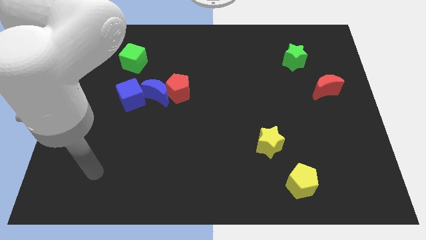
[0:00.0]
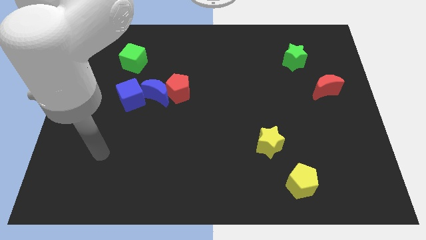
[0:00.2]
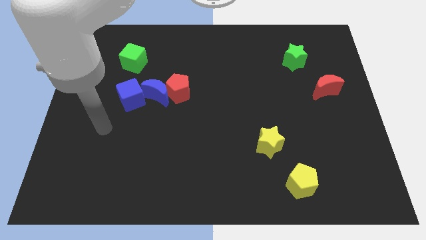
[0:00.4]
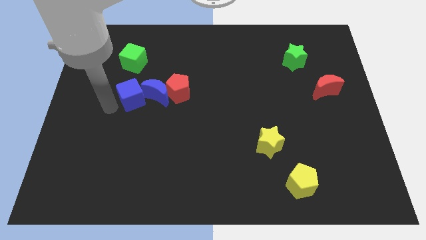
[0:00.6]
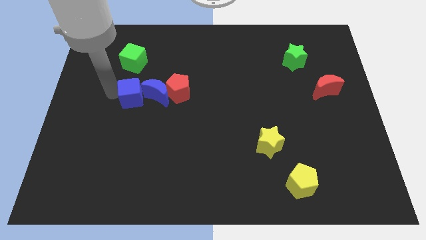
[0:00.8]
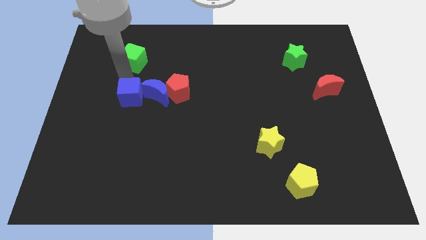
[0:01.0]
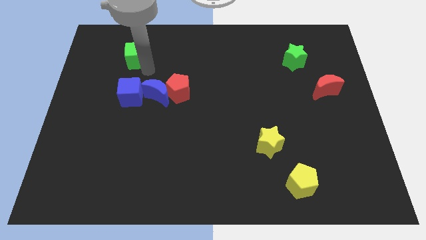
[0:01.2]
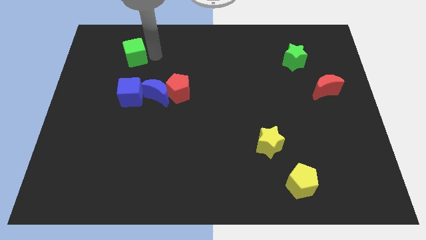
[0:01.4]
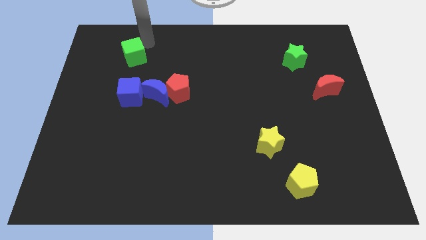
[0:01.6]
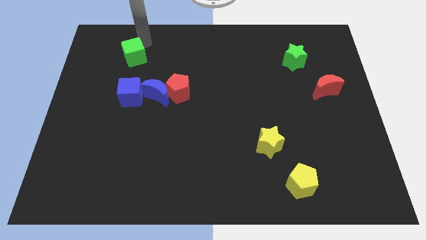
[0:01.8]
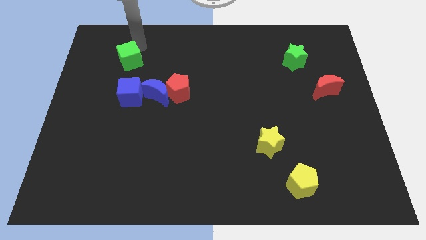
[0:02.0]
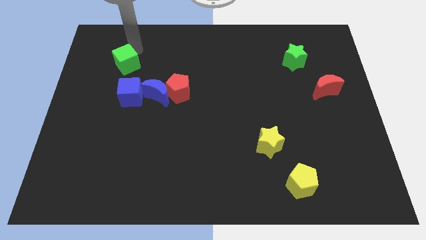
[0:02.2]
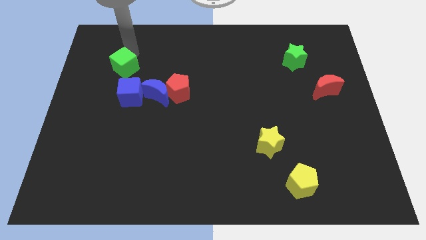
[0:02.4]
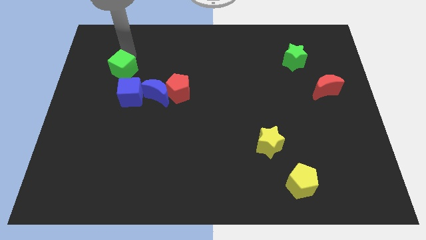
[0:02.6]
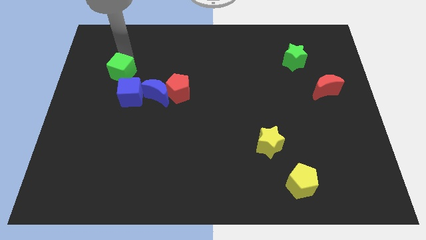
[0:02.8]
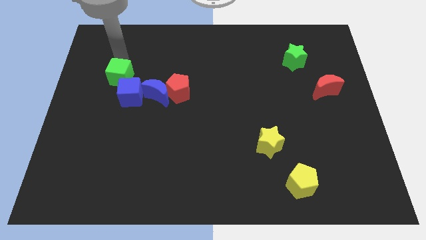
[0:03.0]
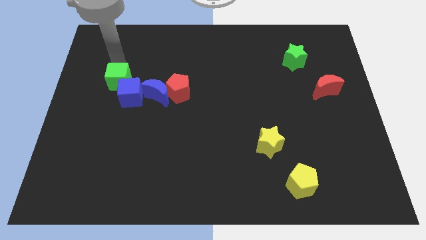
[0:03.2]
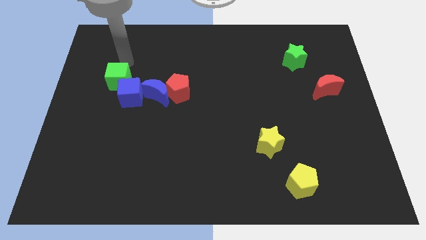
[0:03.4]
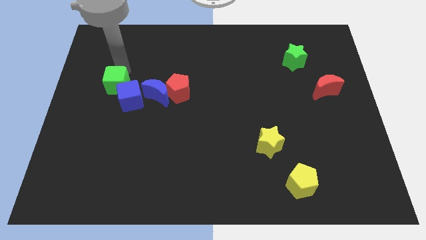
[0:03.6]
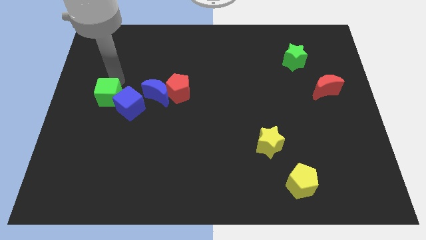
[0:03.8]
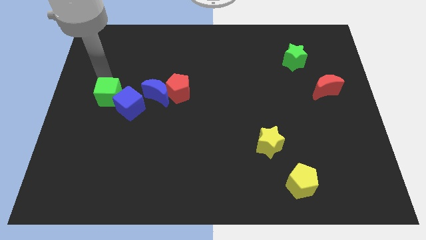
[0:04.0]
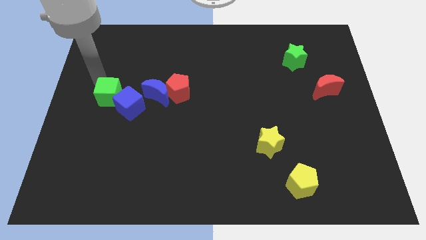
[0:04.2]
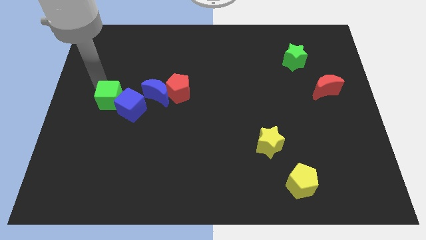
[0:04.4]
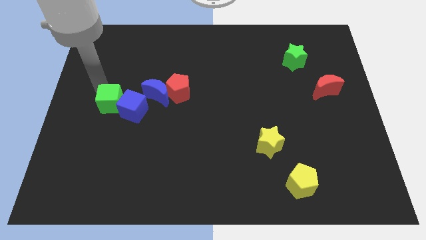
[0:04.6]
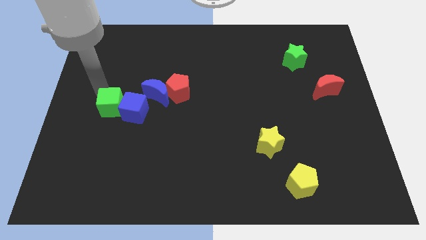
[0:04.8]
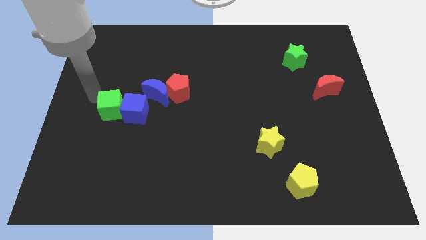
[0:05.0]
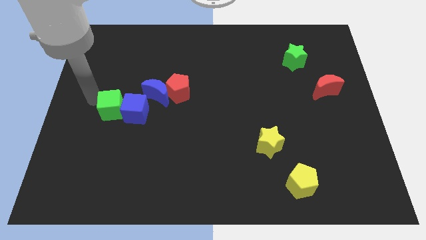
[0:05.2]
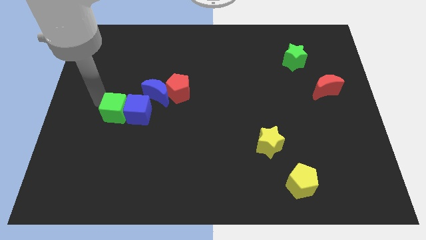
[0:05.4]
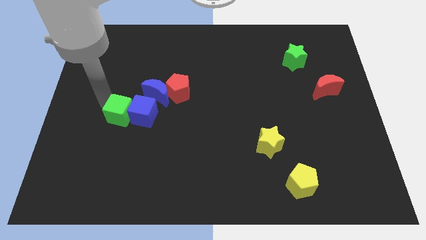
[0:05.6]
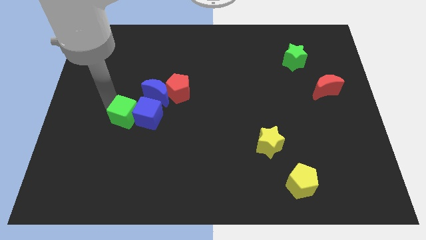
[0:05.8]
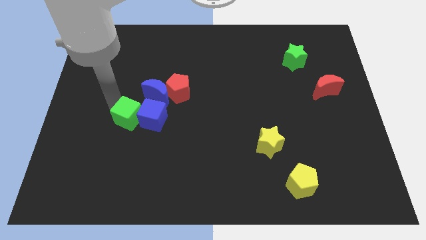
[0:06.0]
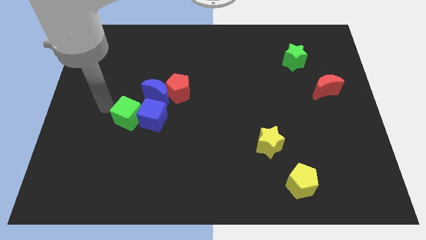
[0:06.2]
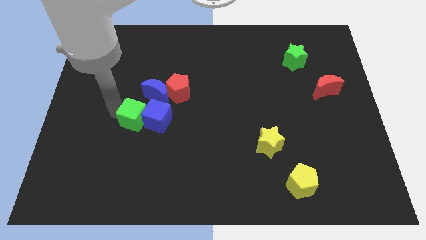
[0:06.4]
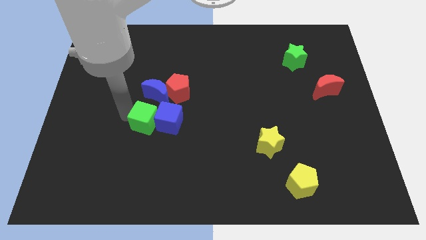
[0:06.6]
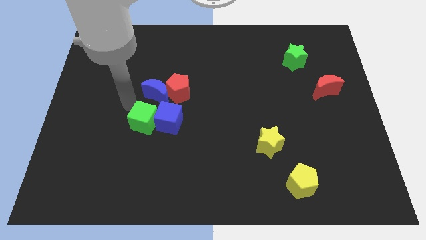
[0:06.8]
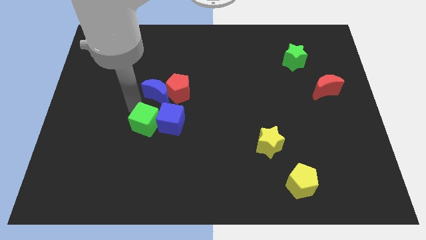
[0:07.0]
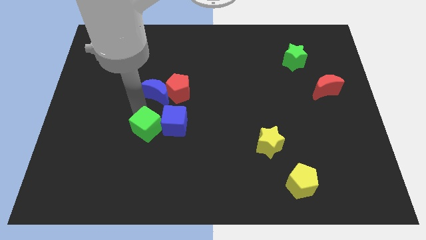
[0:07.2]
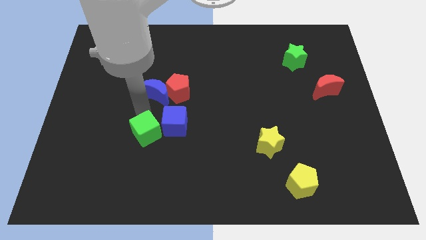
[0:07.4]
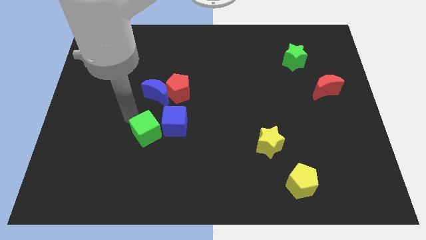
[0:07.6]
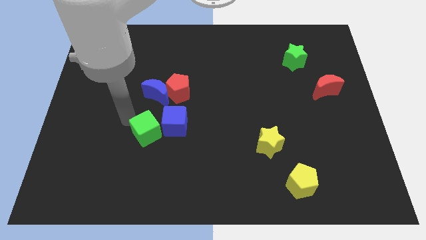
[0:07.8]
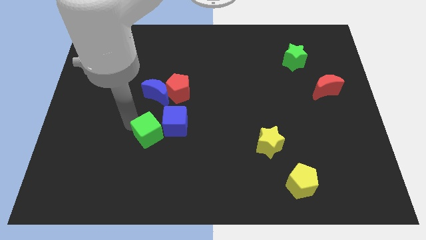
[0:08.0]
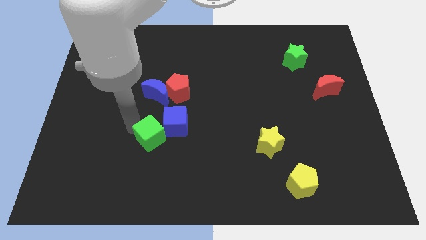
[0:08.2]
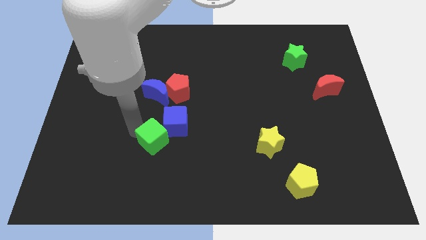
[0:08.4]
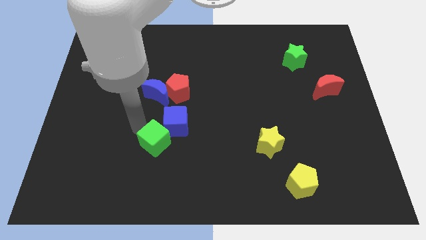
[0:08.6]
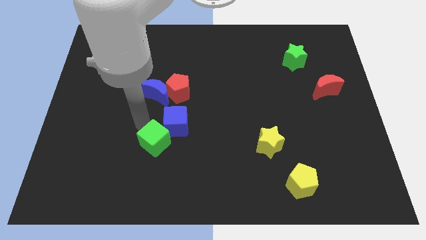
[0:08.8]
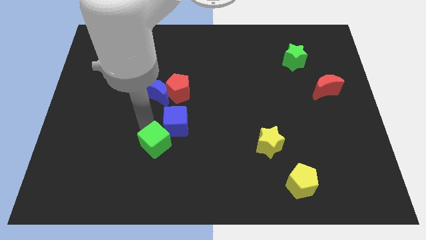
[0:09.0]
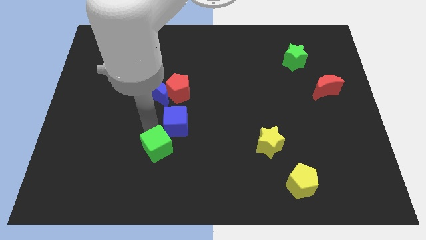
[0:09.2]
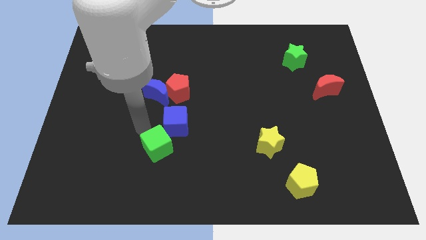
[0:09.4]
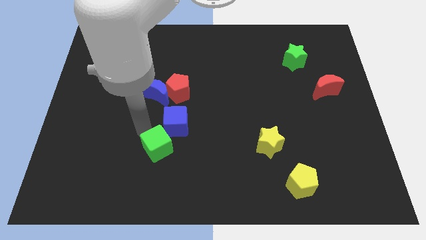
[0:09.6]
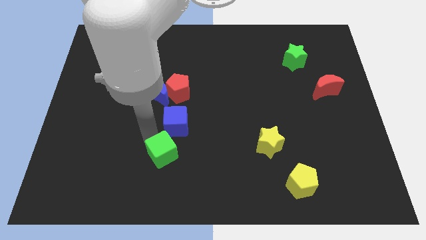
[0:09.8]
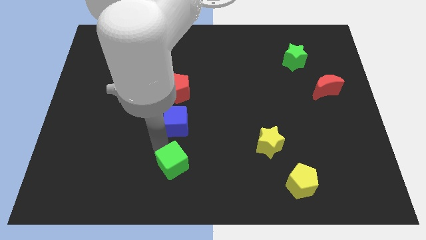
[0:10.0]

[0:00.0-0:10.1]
push the green cube to the bottom side
